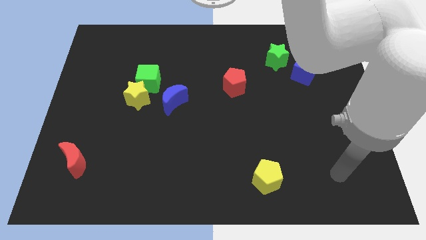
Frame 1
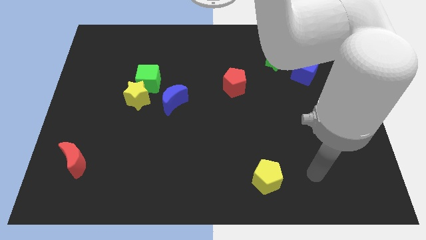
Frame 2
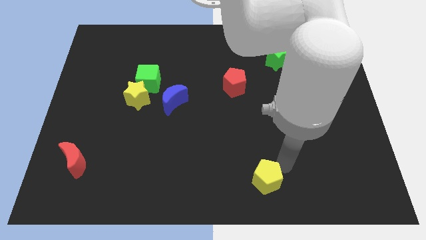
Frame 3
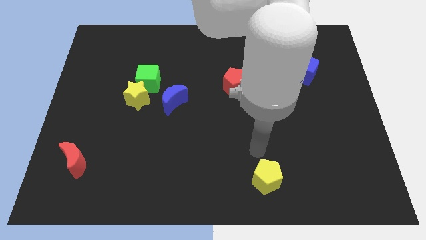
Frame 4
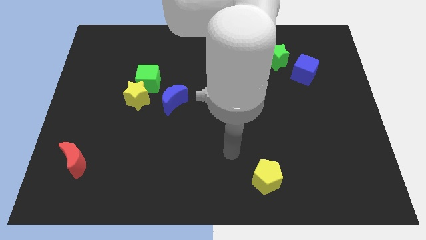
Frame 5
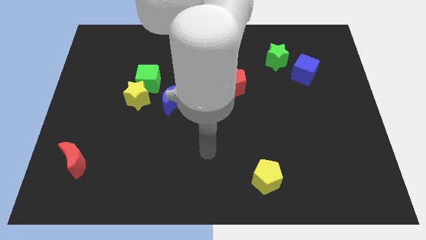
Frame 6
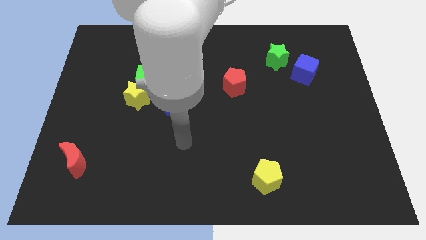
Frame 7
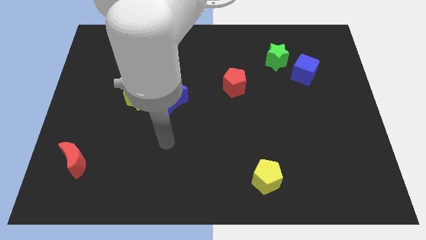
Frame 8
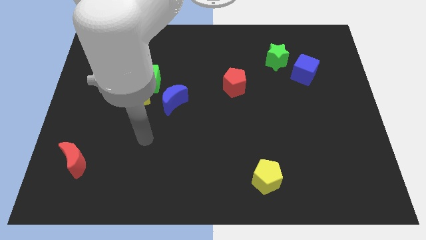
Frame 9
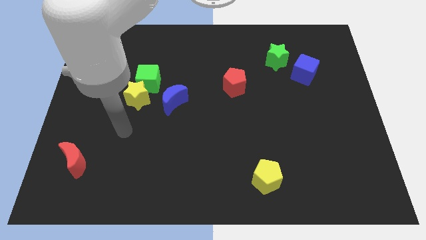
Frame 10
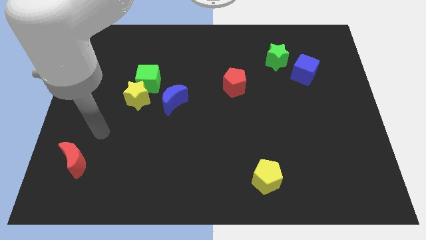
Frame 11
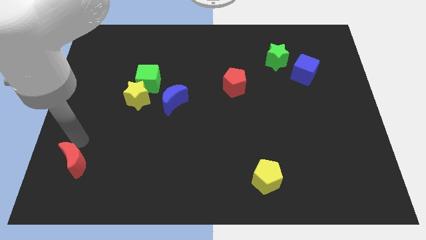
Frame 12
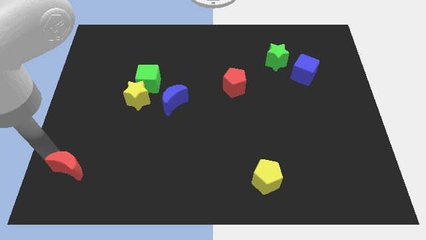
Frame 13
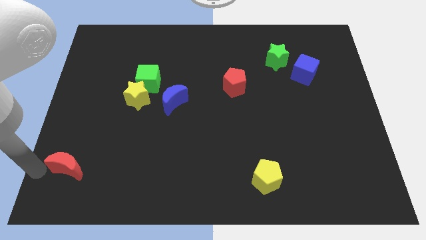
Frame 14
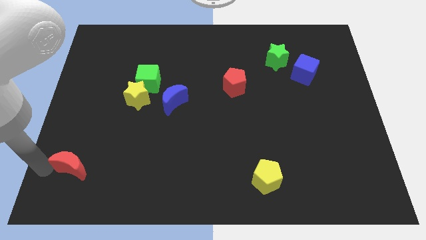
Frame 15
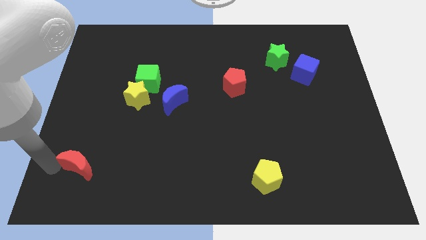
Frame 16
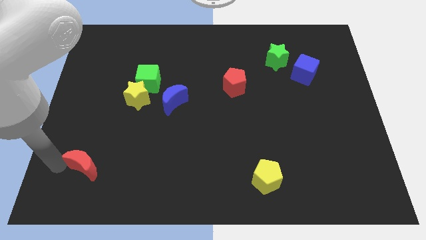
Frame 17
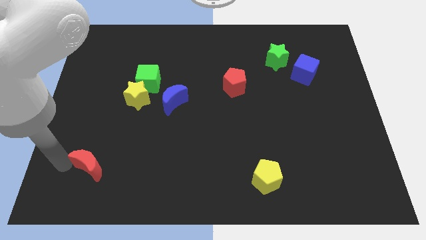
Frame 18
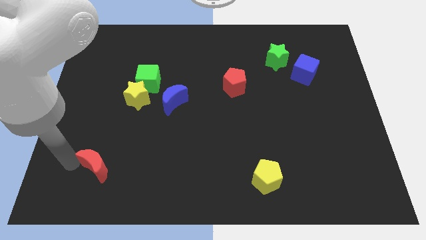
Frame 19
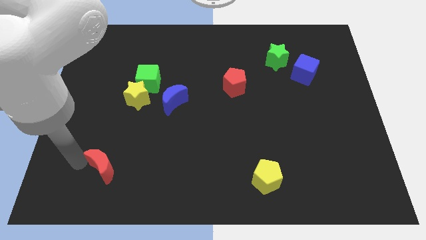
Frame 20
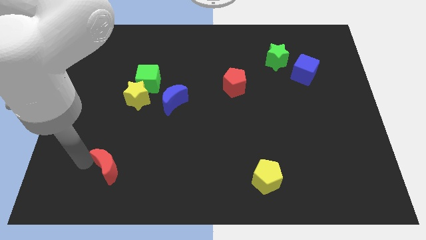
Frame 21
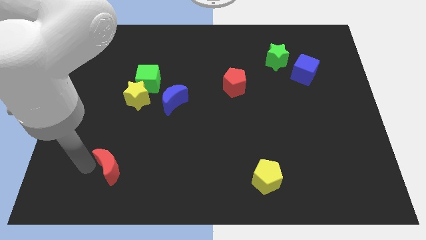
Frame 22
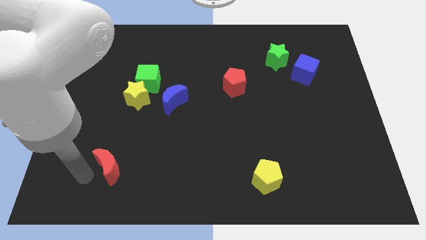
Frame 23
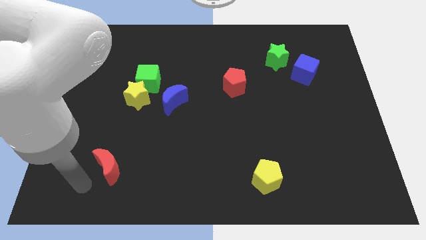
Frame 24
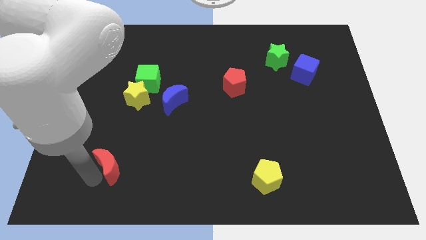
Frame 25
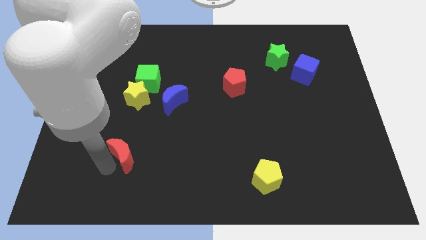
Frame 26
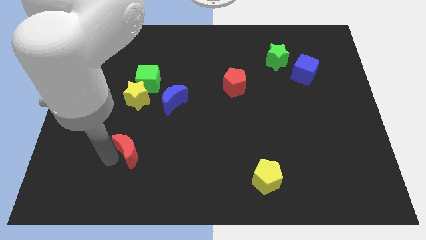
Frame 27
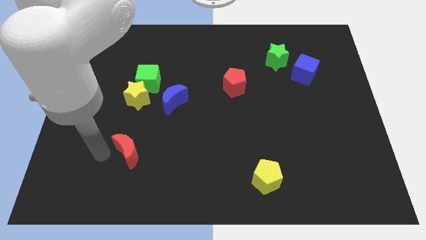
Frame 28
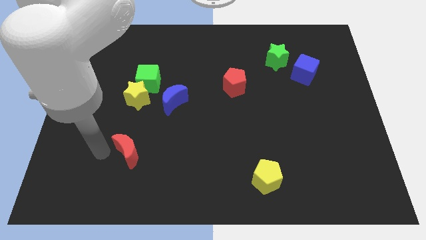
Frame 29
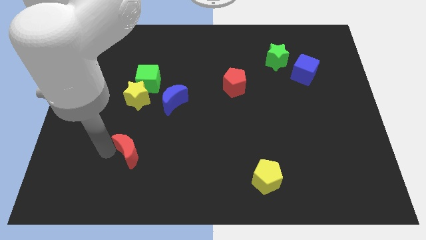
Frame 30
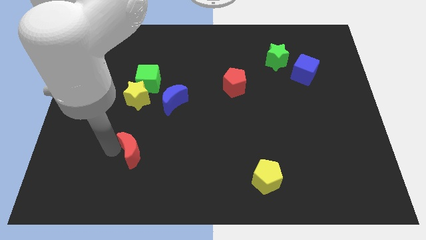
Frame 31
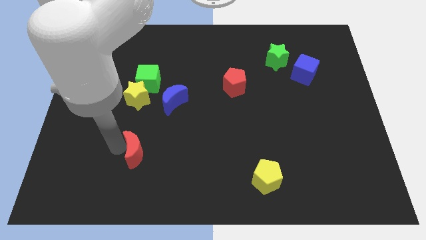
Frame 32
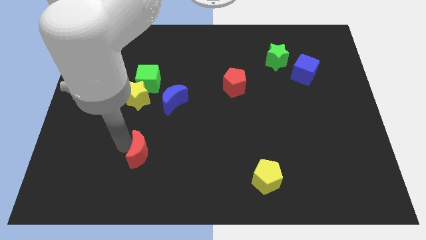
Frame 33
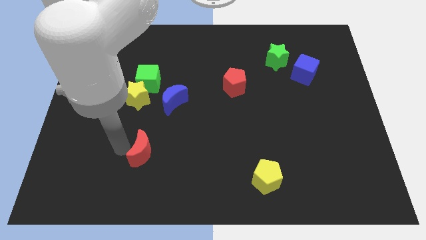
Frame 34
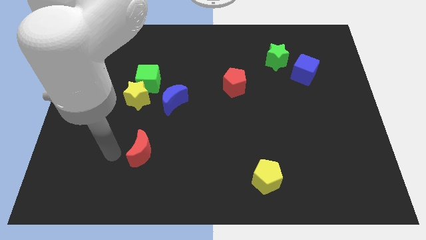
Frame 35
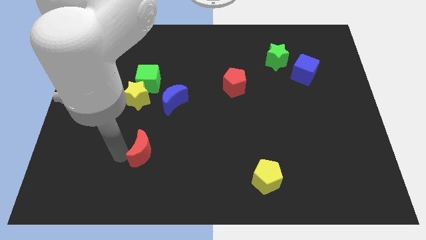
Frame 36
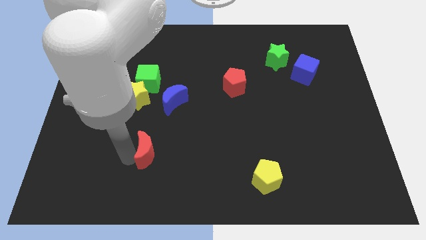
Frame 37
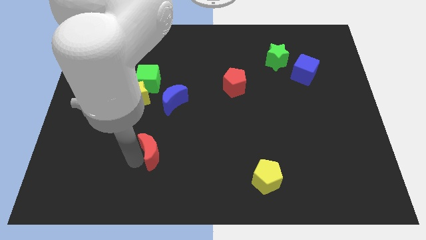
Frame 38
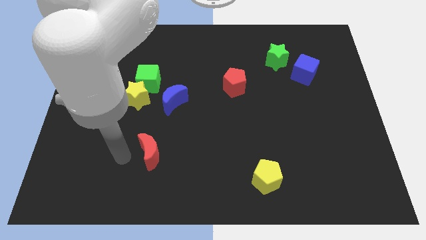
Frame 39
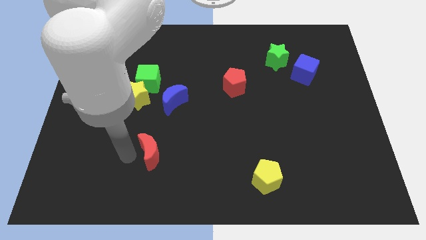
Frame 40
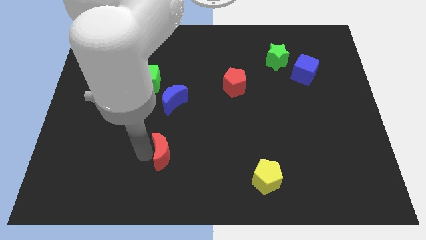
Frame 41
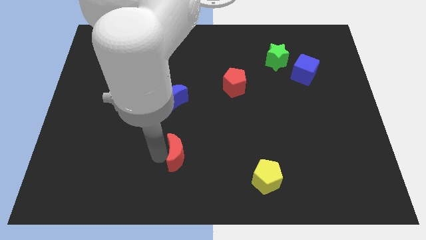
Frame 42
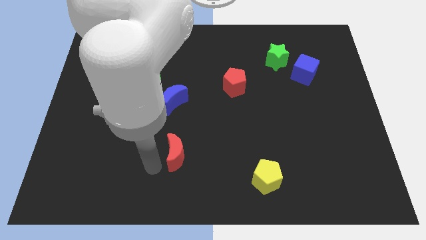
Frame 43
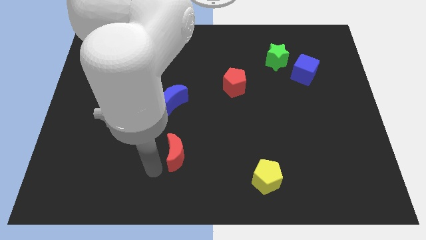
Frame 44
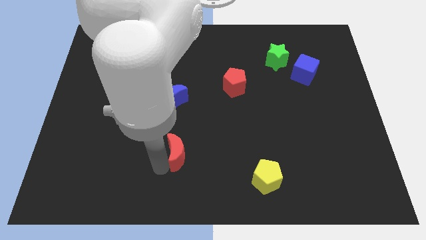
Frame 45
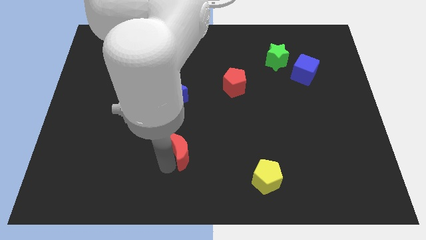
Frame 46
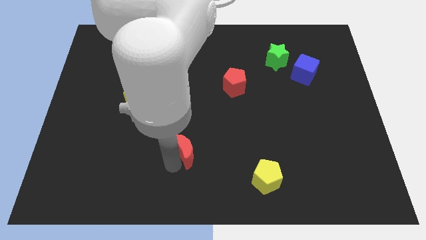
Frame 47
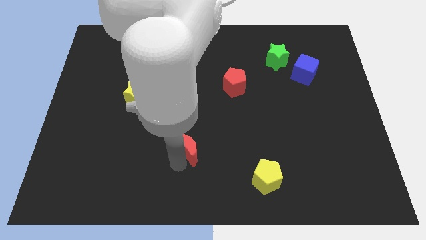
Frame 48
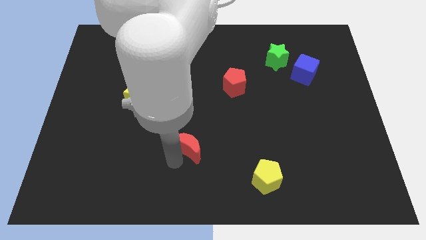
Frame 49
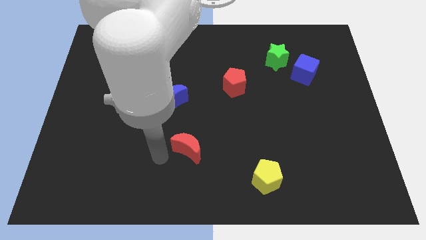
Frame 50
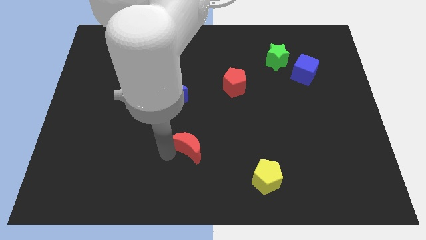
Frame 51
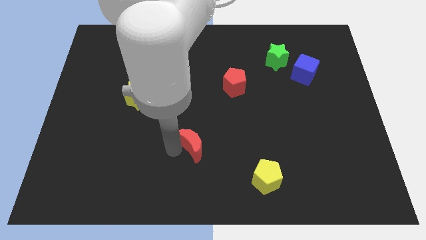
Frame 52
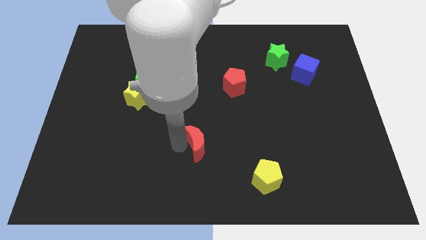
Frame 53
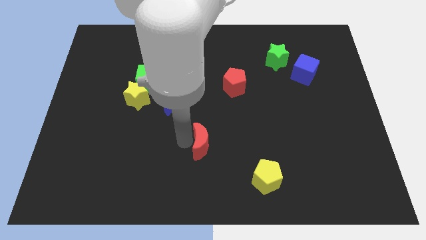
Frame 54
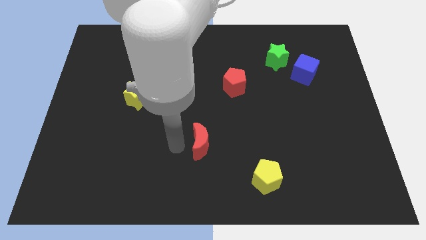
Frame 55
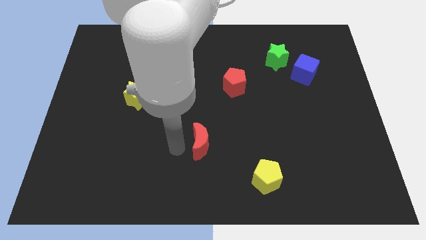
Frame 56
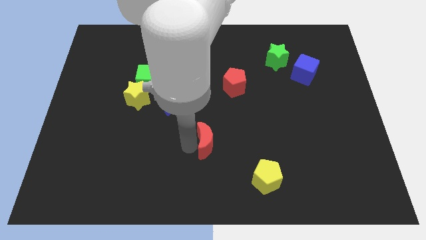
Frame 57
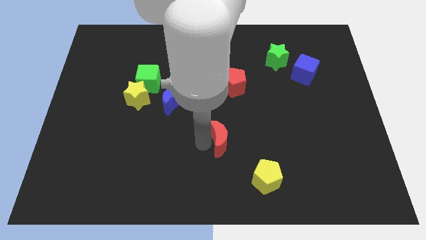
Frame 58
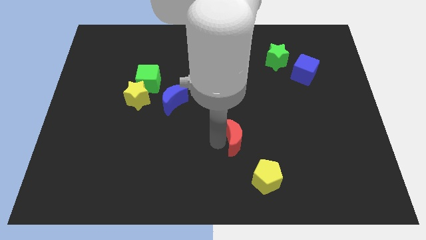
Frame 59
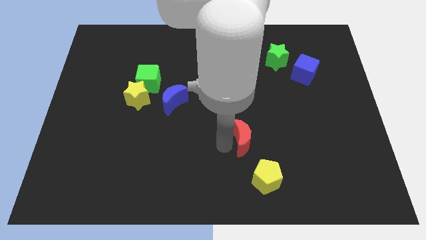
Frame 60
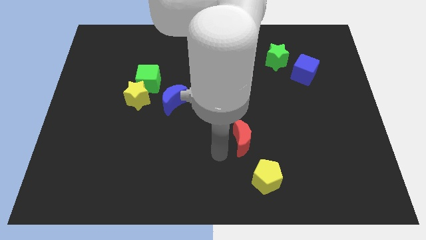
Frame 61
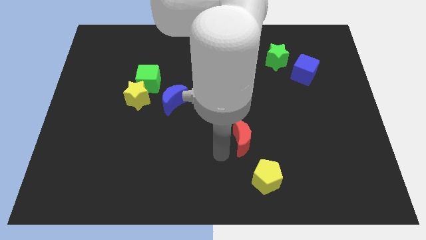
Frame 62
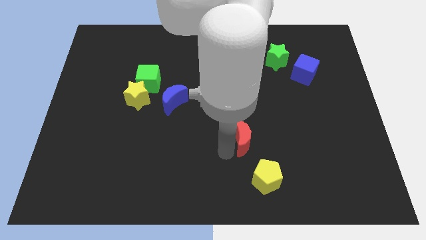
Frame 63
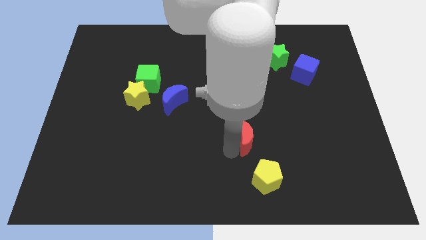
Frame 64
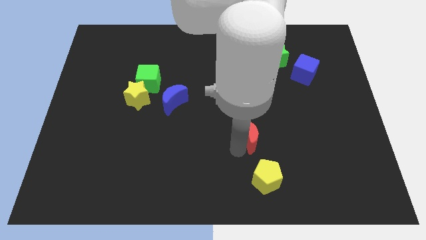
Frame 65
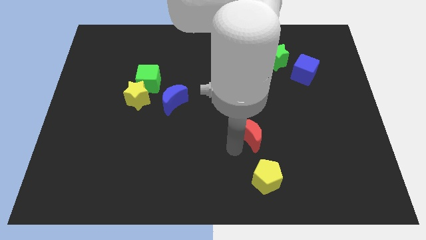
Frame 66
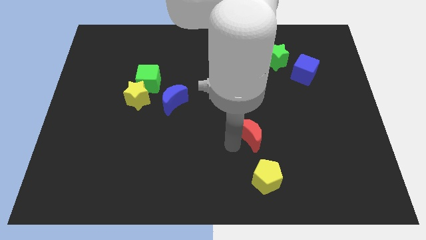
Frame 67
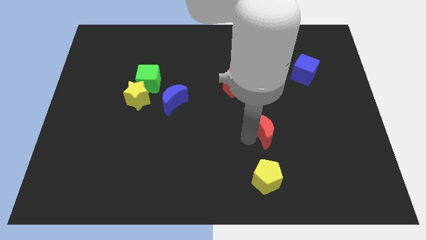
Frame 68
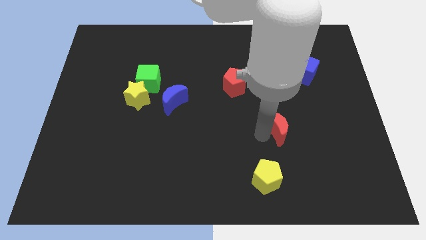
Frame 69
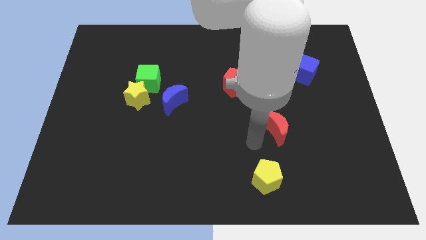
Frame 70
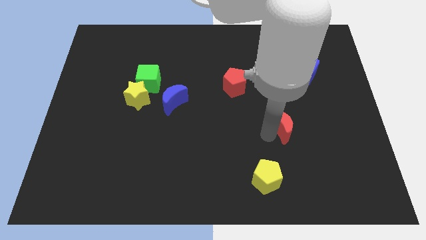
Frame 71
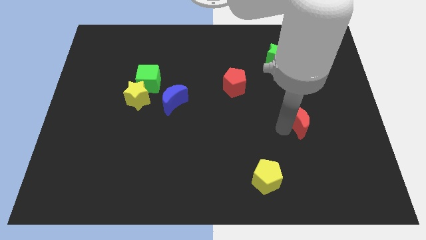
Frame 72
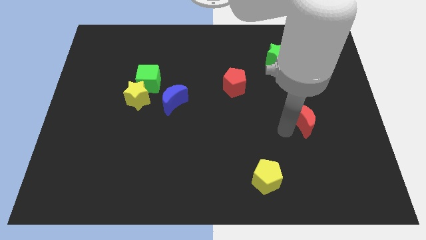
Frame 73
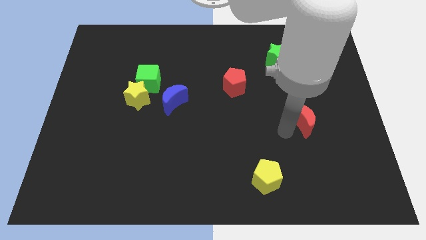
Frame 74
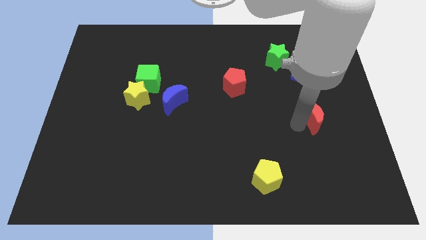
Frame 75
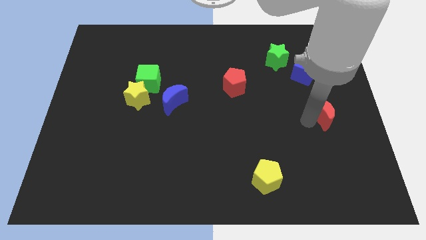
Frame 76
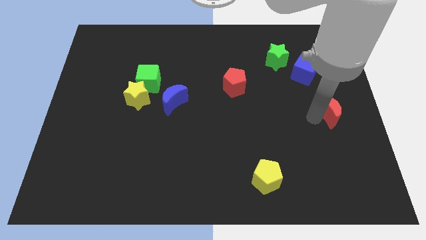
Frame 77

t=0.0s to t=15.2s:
put the red moon to the right side of the board
